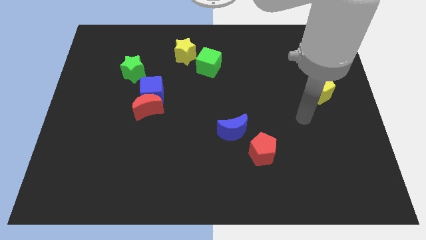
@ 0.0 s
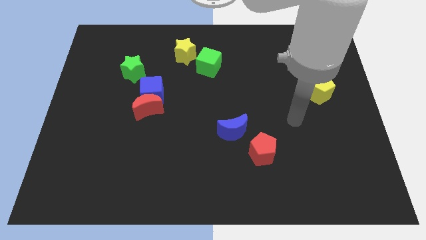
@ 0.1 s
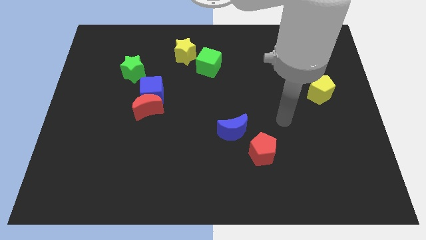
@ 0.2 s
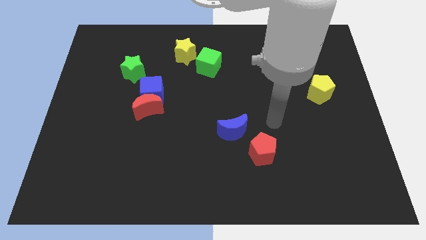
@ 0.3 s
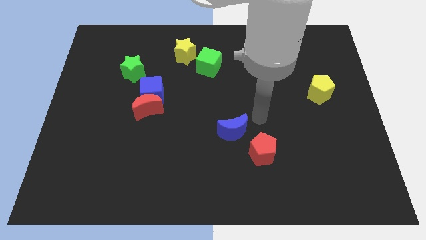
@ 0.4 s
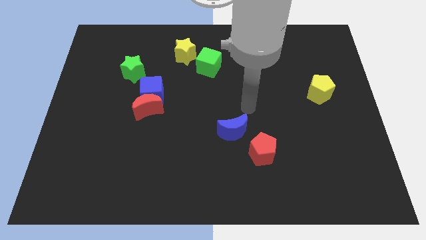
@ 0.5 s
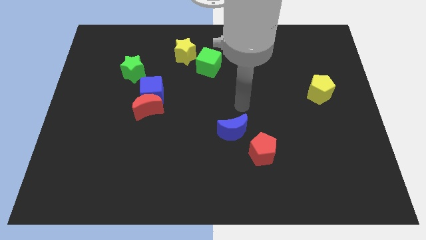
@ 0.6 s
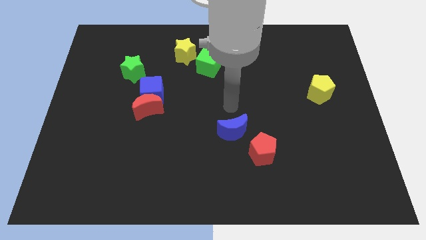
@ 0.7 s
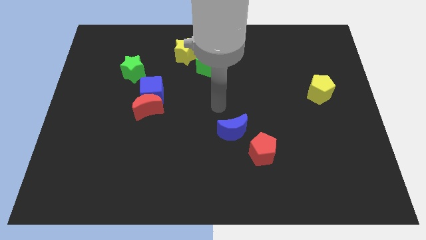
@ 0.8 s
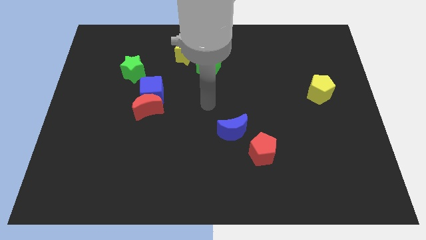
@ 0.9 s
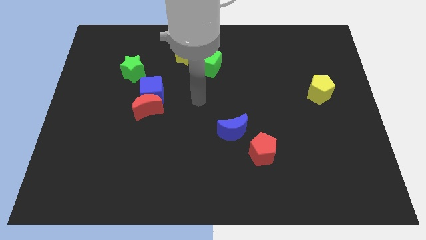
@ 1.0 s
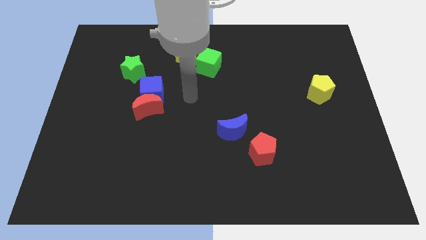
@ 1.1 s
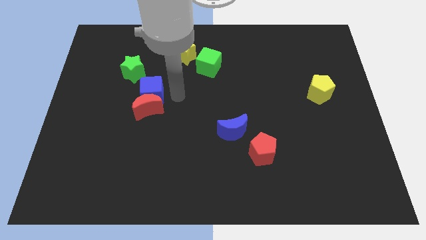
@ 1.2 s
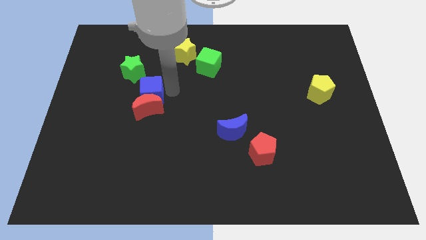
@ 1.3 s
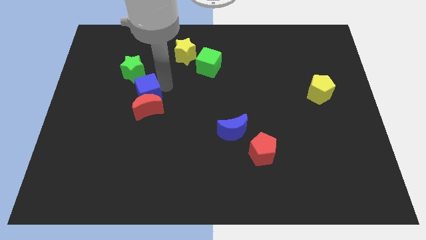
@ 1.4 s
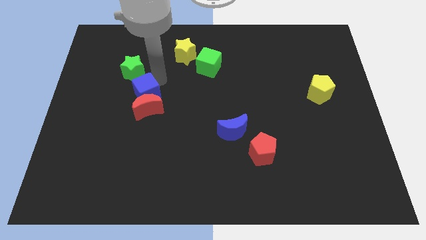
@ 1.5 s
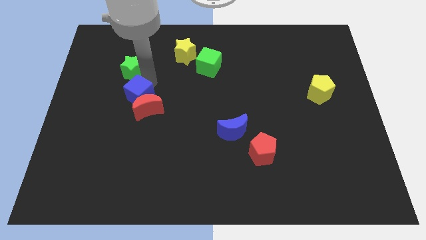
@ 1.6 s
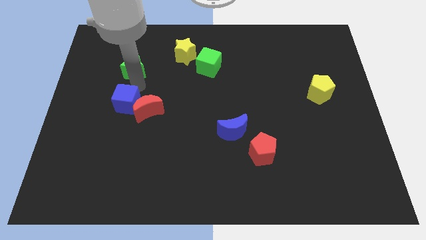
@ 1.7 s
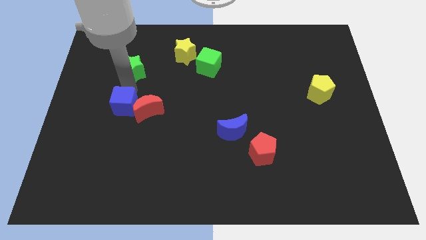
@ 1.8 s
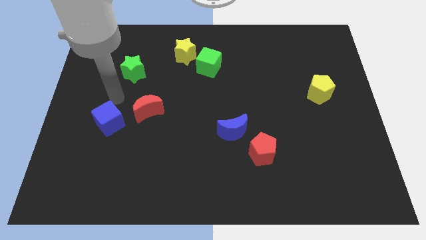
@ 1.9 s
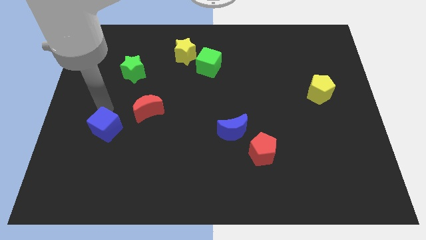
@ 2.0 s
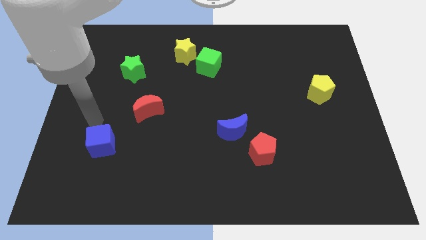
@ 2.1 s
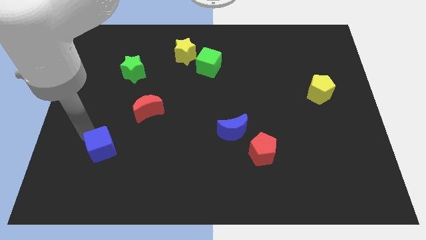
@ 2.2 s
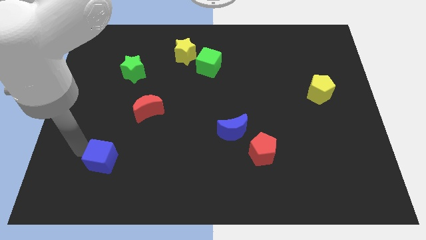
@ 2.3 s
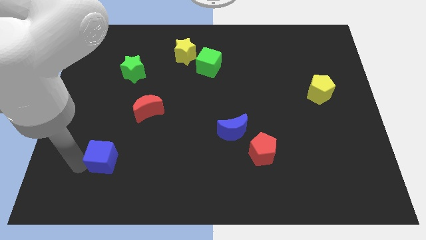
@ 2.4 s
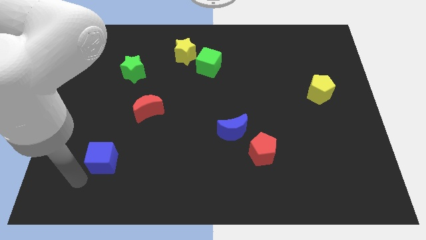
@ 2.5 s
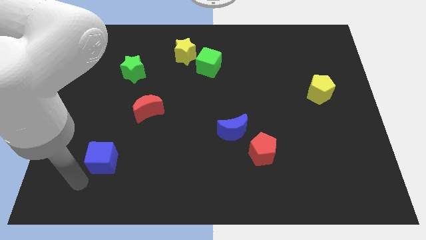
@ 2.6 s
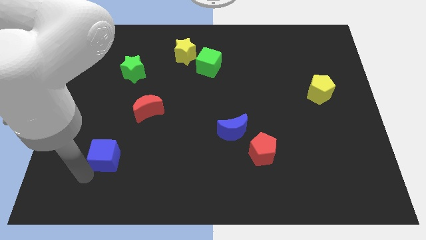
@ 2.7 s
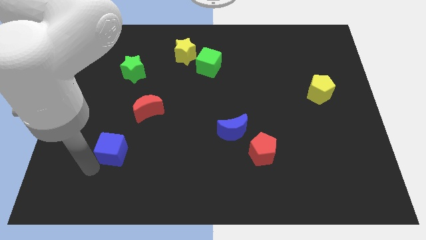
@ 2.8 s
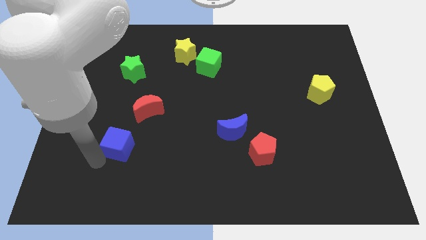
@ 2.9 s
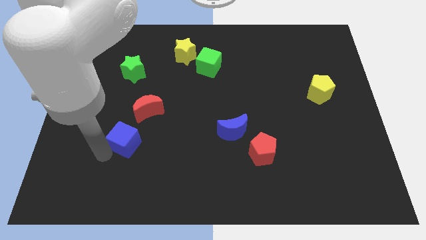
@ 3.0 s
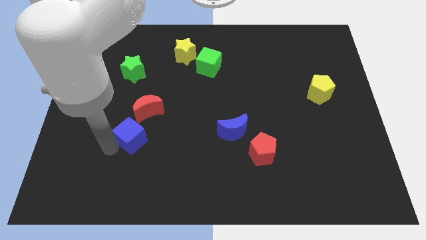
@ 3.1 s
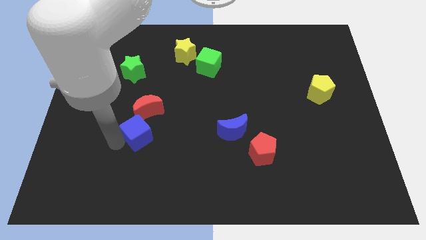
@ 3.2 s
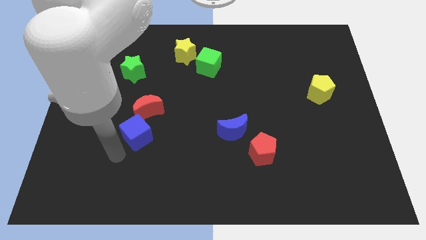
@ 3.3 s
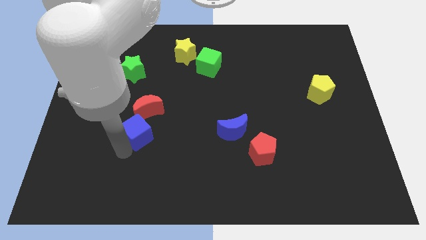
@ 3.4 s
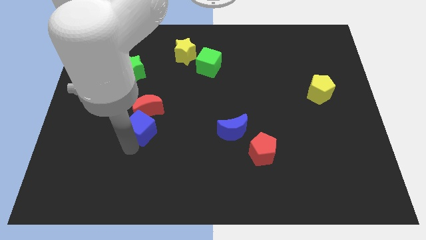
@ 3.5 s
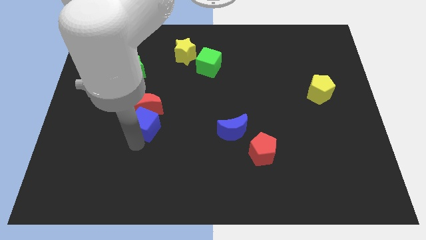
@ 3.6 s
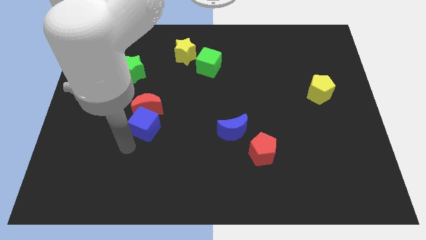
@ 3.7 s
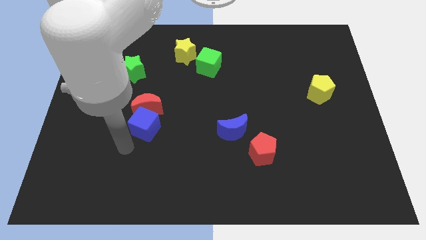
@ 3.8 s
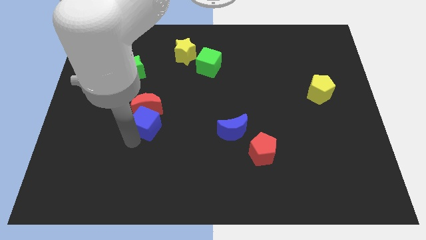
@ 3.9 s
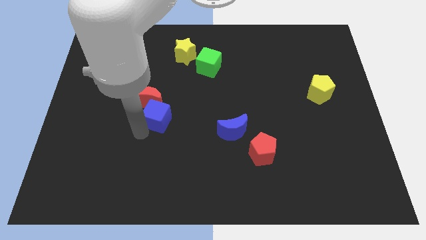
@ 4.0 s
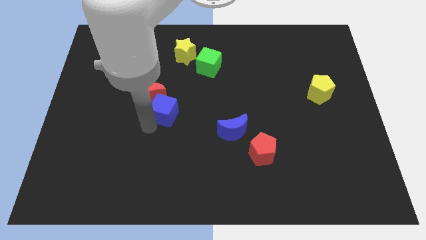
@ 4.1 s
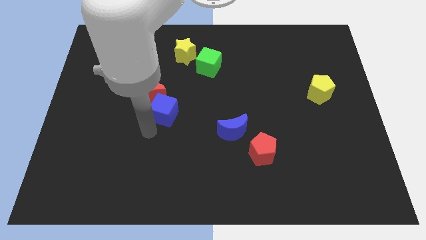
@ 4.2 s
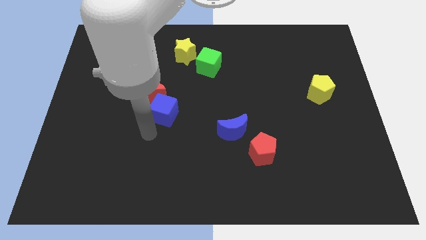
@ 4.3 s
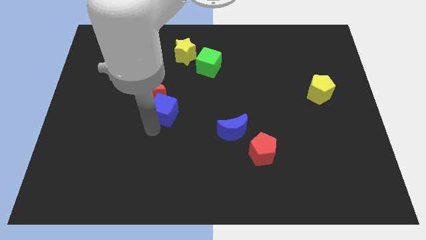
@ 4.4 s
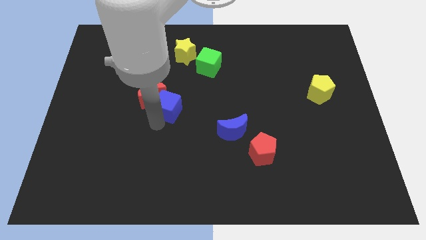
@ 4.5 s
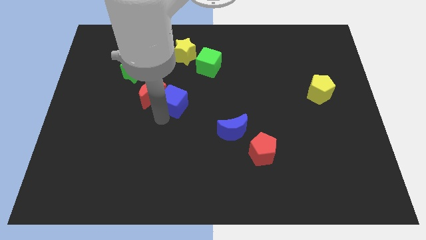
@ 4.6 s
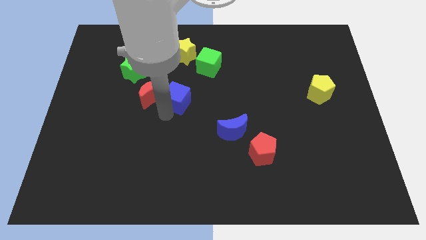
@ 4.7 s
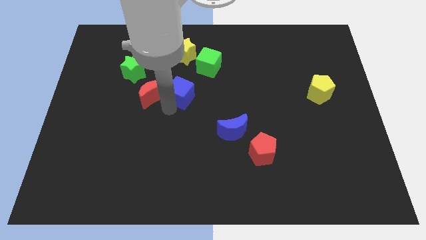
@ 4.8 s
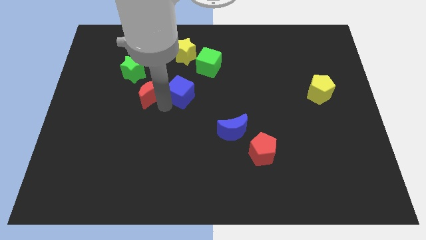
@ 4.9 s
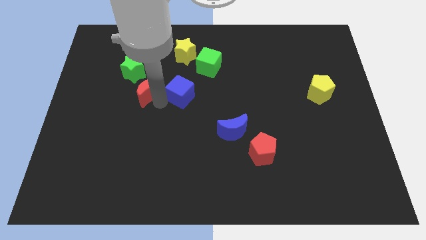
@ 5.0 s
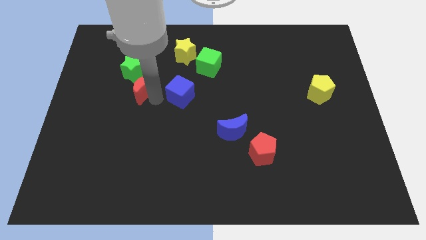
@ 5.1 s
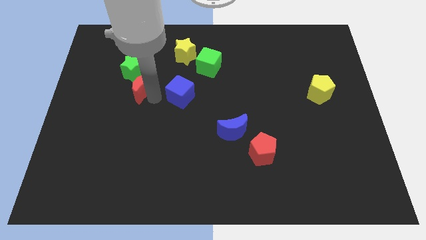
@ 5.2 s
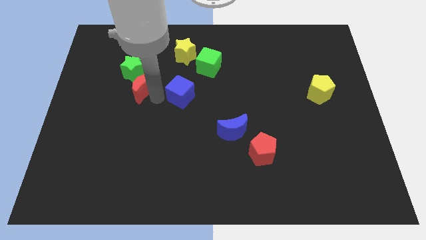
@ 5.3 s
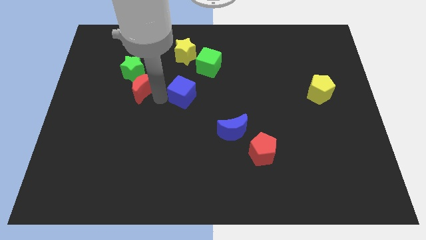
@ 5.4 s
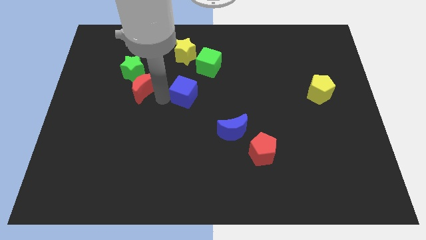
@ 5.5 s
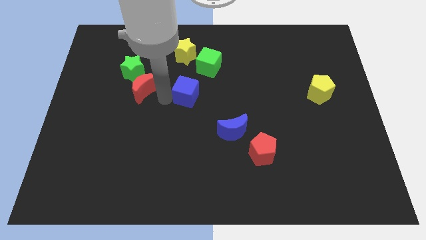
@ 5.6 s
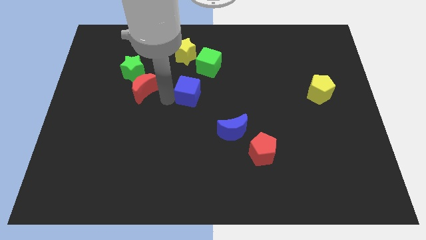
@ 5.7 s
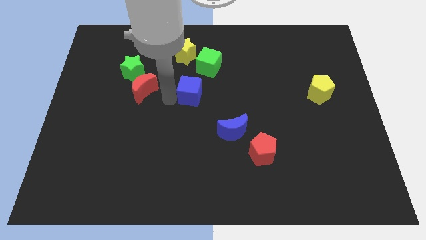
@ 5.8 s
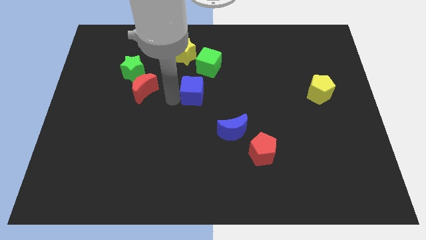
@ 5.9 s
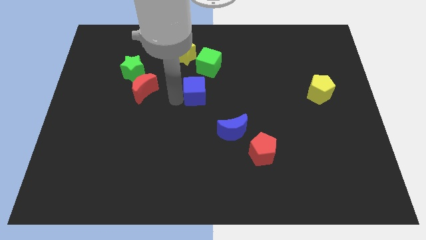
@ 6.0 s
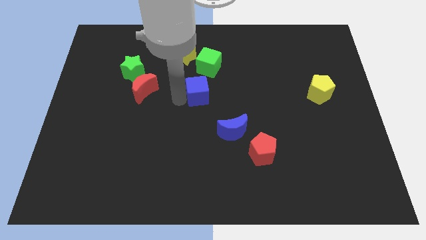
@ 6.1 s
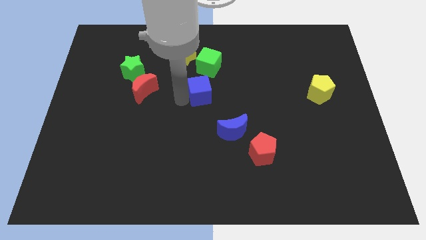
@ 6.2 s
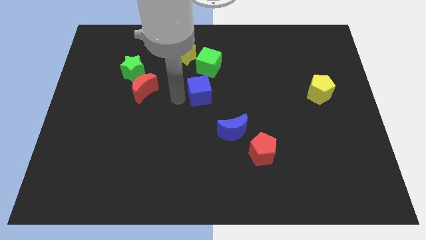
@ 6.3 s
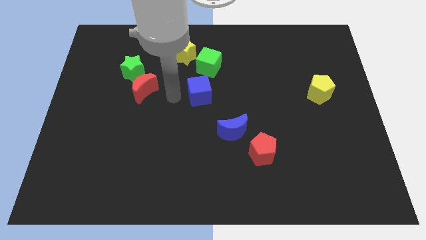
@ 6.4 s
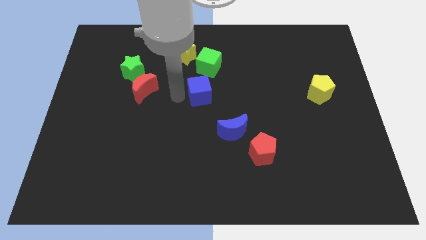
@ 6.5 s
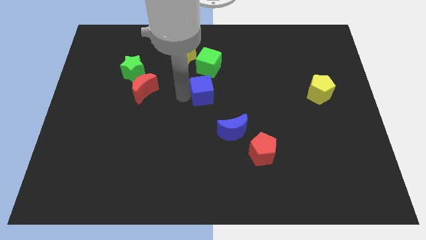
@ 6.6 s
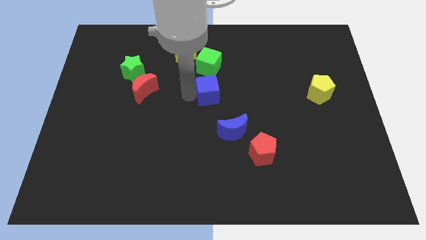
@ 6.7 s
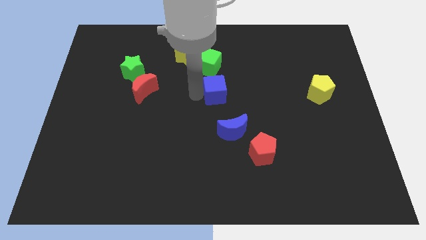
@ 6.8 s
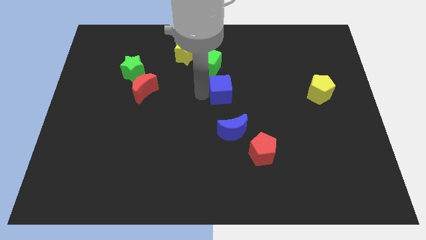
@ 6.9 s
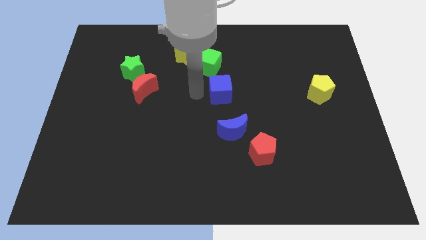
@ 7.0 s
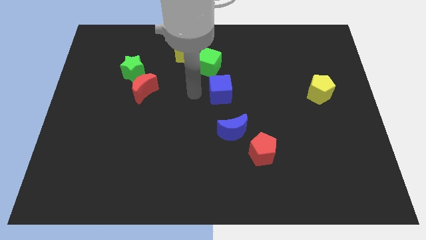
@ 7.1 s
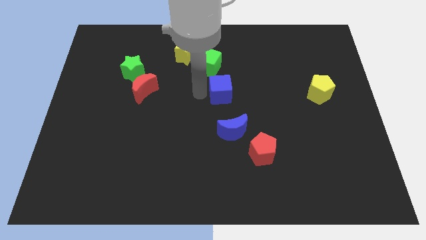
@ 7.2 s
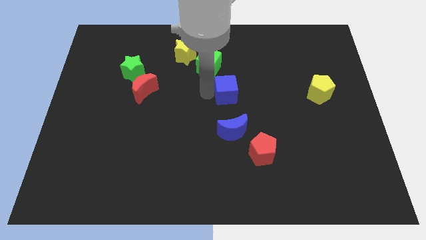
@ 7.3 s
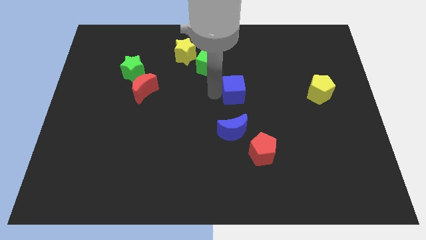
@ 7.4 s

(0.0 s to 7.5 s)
slide the blue cube right

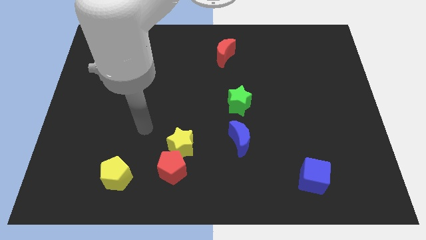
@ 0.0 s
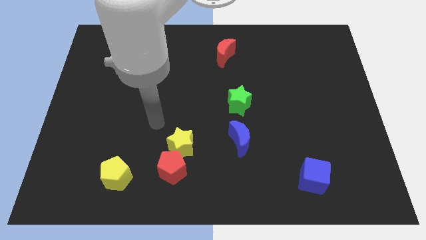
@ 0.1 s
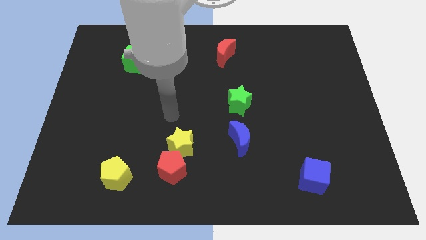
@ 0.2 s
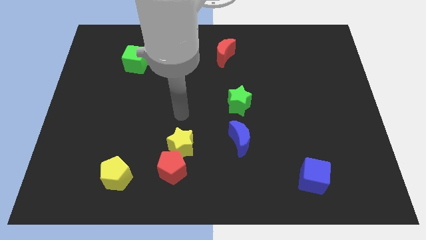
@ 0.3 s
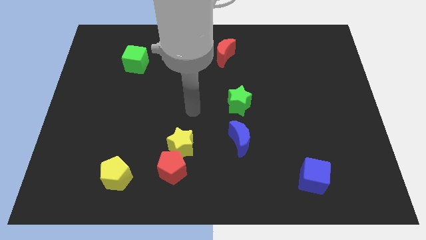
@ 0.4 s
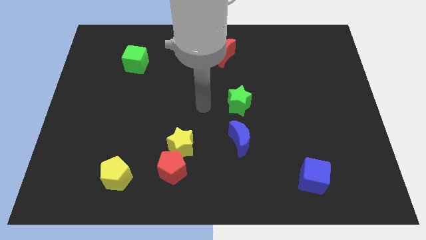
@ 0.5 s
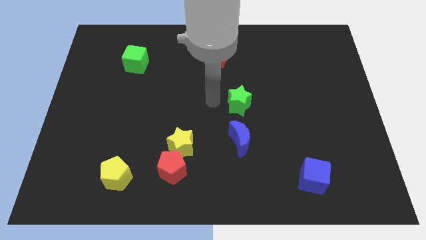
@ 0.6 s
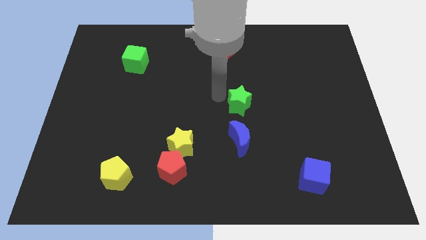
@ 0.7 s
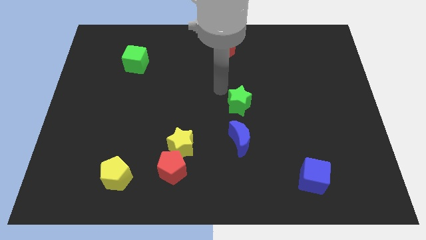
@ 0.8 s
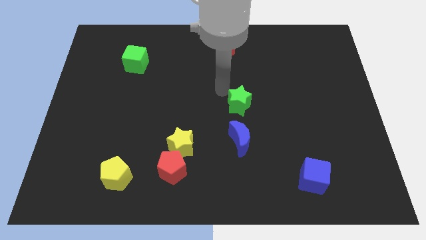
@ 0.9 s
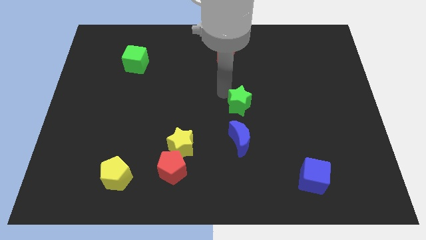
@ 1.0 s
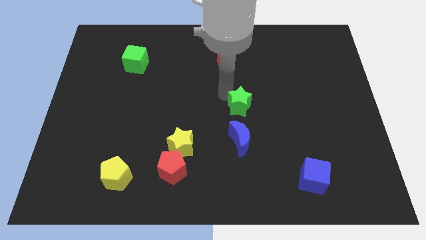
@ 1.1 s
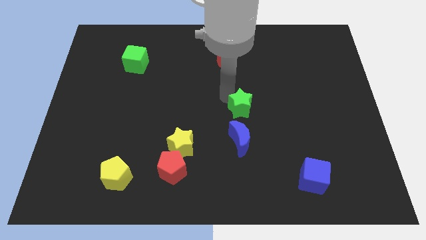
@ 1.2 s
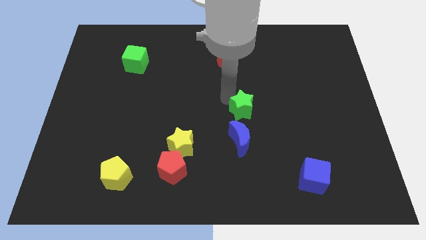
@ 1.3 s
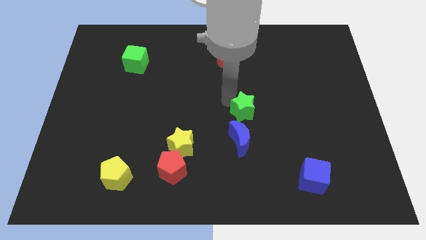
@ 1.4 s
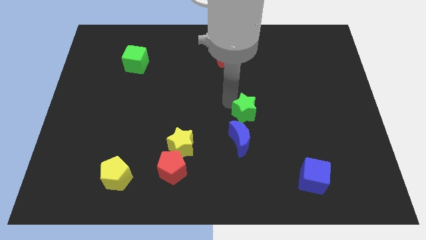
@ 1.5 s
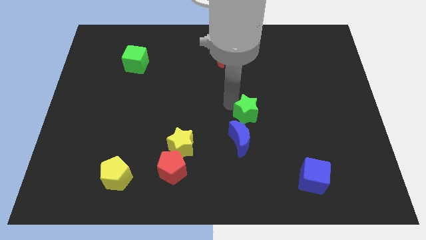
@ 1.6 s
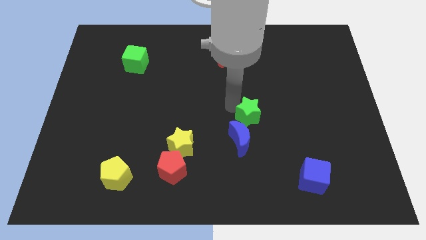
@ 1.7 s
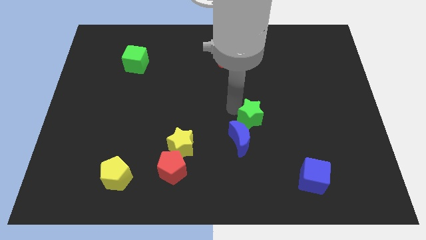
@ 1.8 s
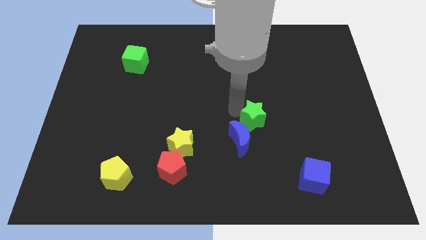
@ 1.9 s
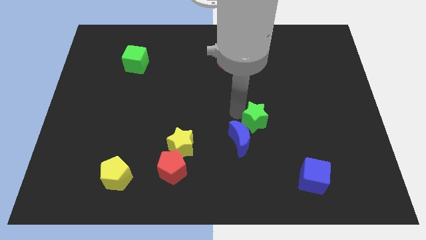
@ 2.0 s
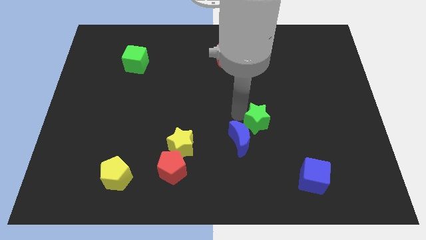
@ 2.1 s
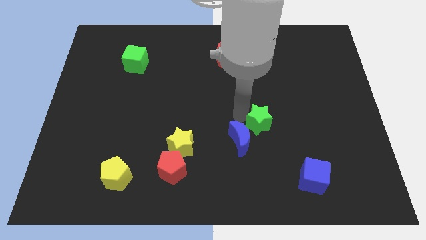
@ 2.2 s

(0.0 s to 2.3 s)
slightly push the green star downwards and to the right diagonally
